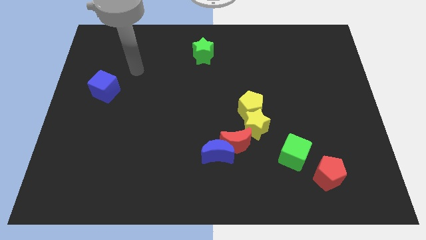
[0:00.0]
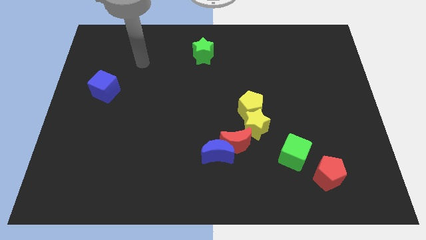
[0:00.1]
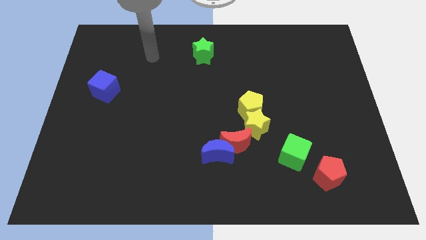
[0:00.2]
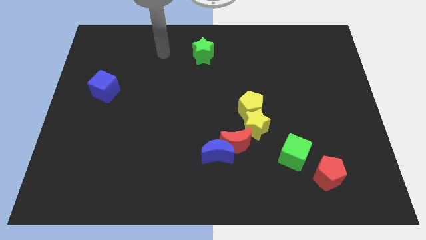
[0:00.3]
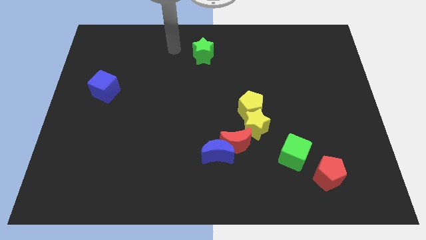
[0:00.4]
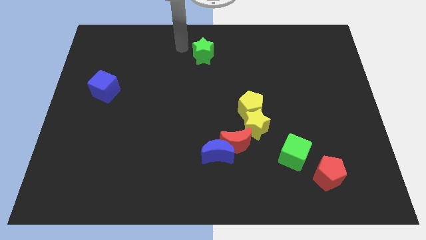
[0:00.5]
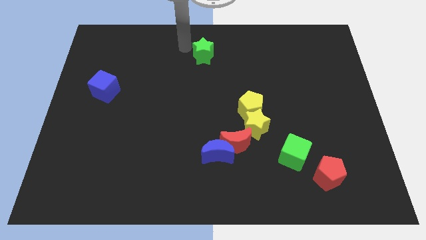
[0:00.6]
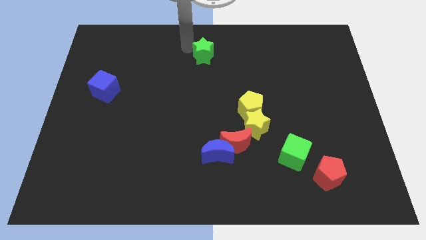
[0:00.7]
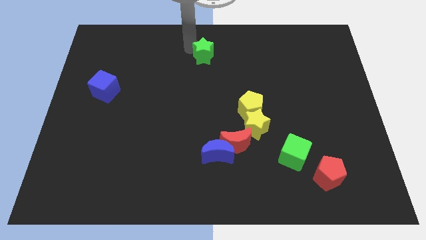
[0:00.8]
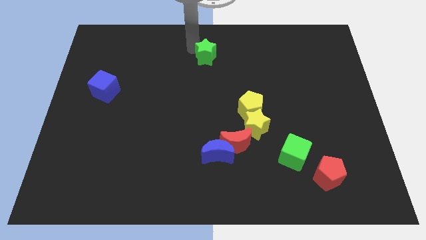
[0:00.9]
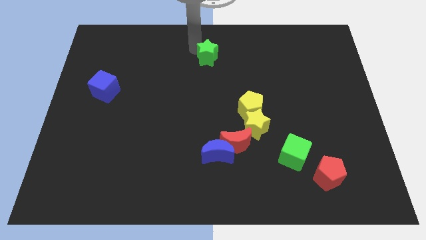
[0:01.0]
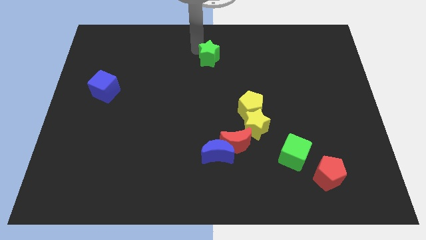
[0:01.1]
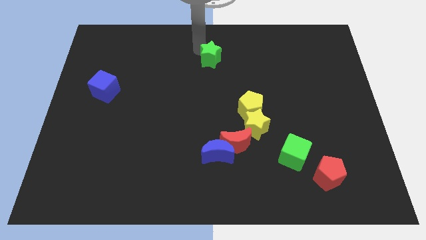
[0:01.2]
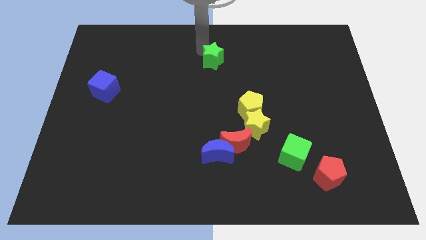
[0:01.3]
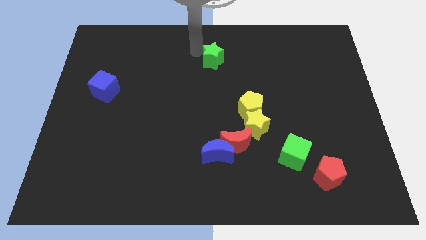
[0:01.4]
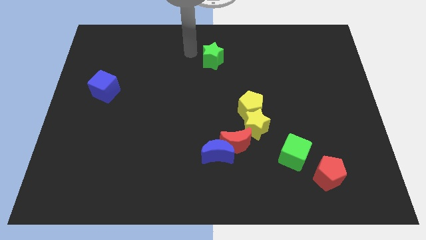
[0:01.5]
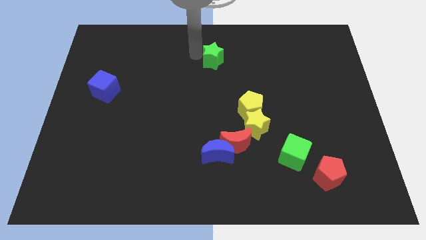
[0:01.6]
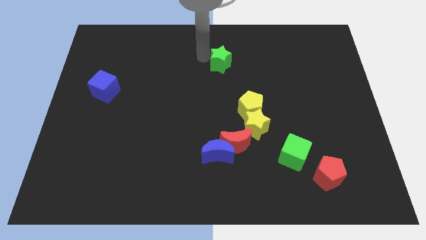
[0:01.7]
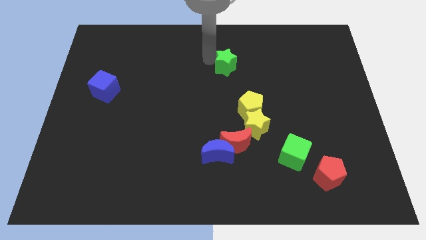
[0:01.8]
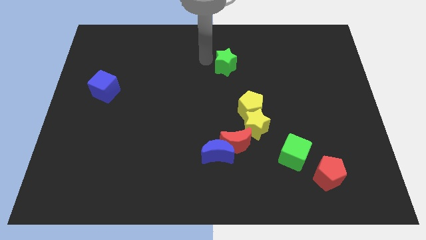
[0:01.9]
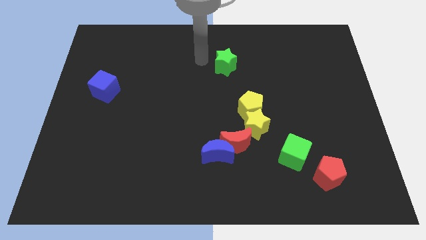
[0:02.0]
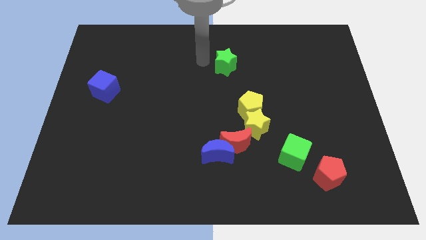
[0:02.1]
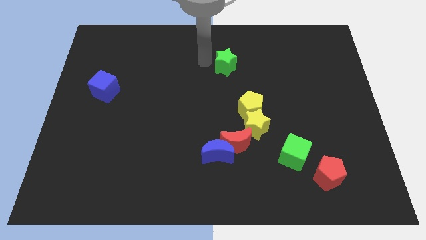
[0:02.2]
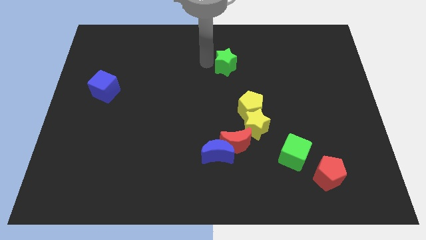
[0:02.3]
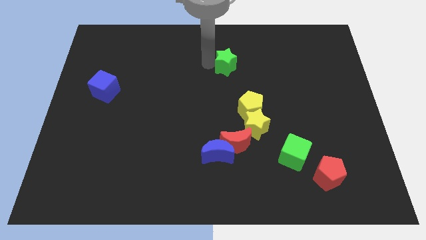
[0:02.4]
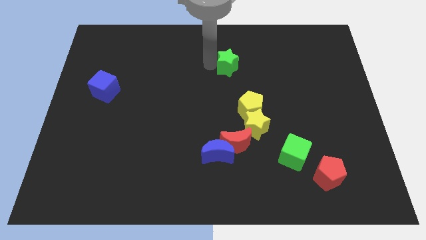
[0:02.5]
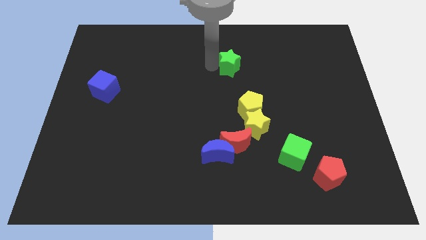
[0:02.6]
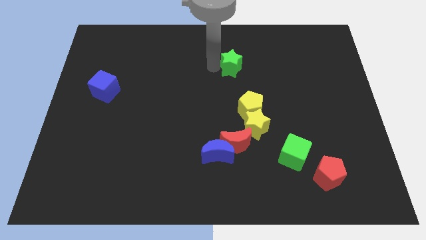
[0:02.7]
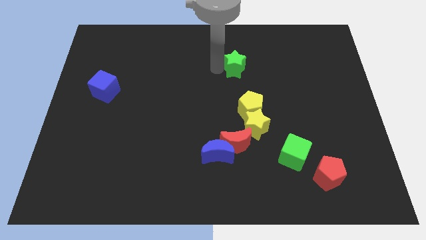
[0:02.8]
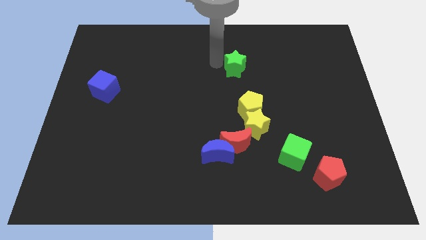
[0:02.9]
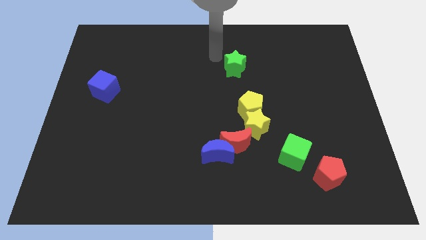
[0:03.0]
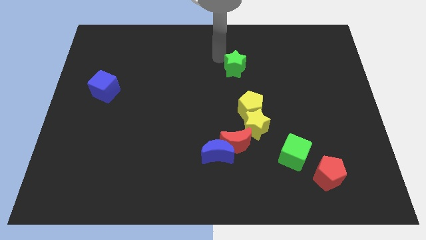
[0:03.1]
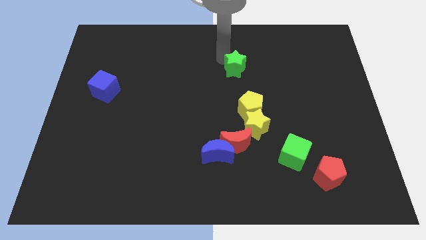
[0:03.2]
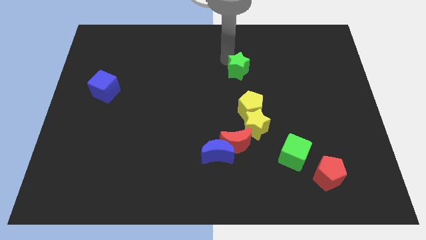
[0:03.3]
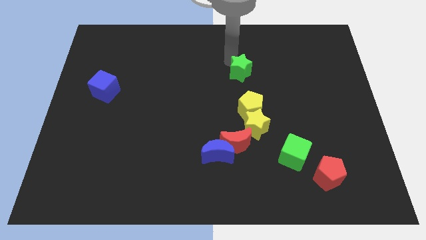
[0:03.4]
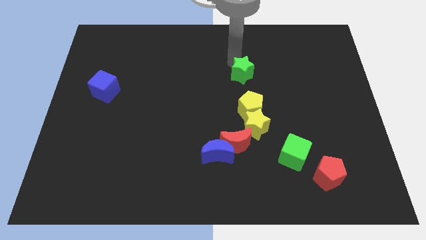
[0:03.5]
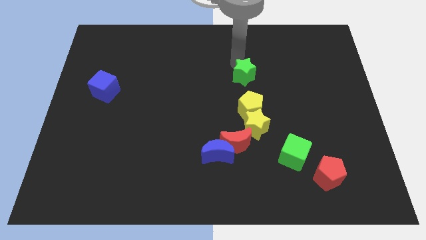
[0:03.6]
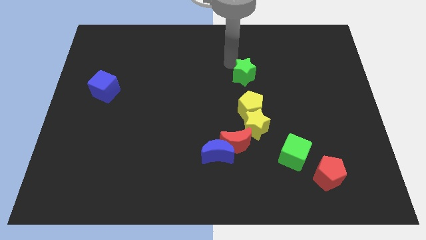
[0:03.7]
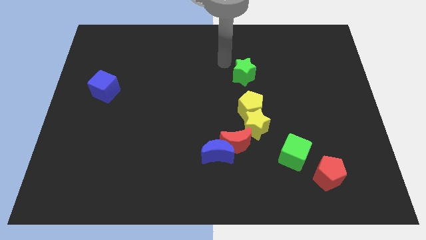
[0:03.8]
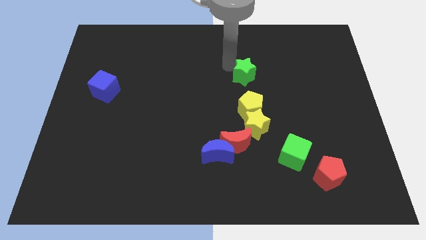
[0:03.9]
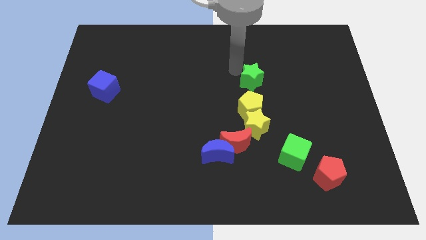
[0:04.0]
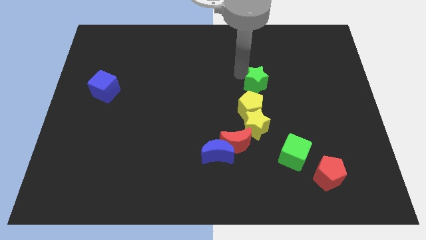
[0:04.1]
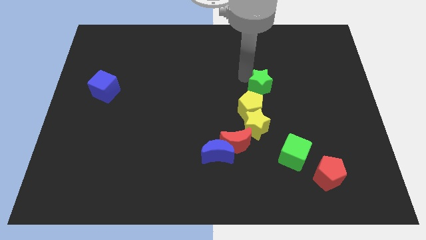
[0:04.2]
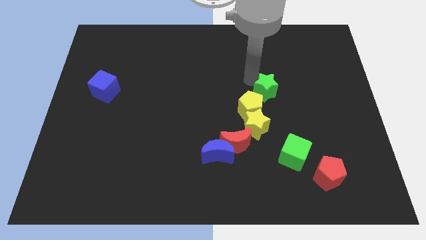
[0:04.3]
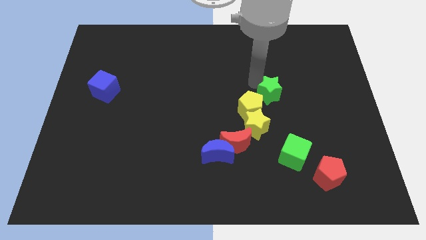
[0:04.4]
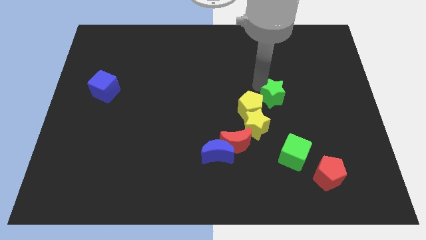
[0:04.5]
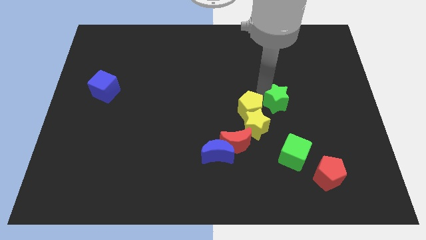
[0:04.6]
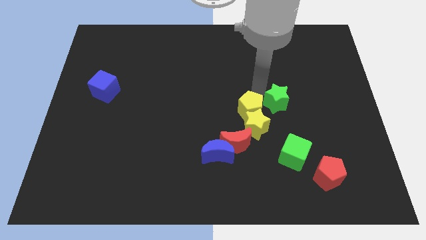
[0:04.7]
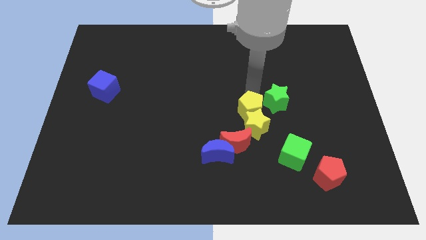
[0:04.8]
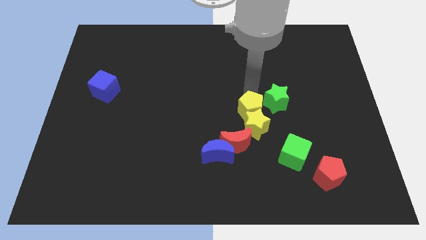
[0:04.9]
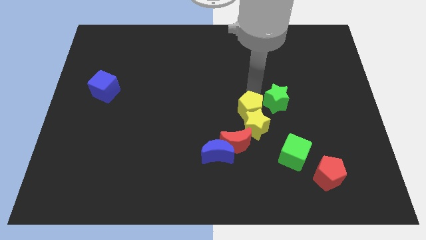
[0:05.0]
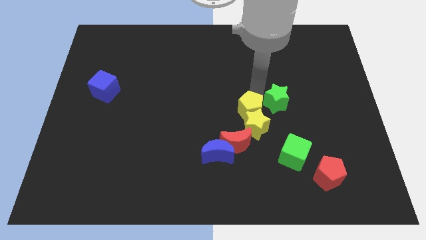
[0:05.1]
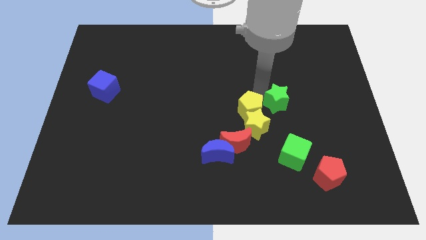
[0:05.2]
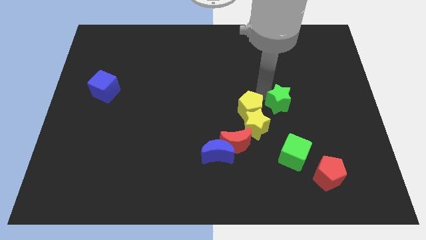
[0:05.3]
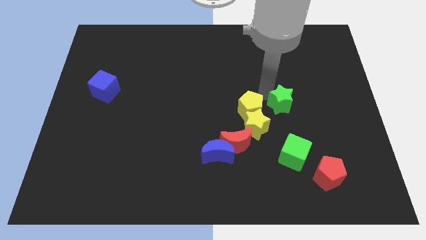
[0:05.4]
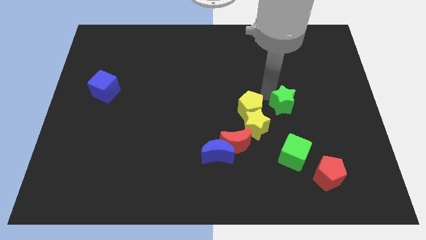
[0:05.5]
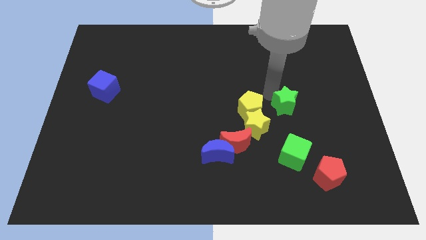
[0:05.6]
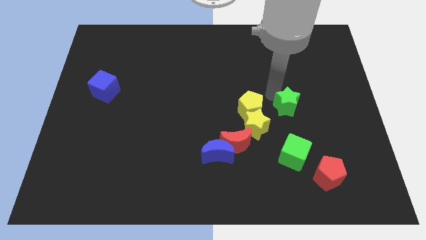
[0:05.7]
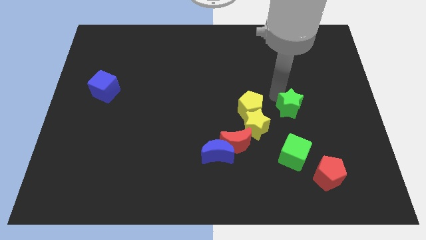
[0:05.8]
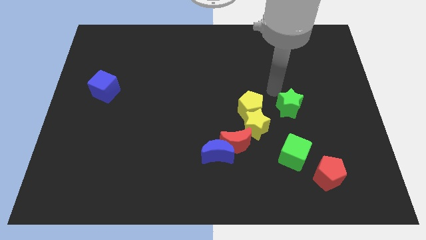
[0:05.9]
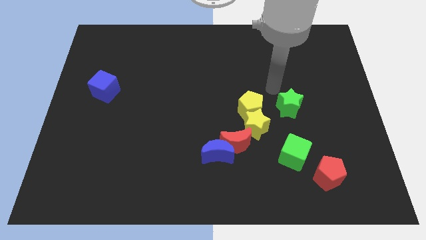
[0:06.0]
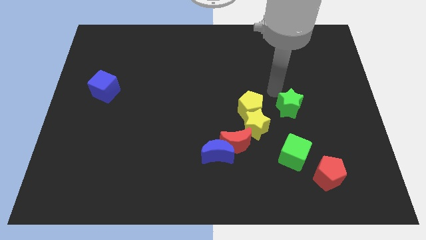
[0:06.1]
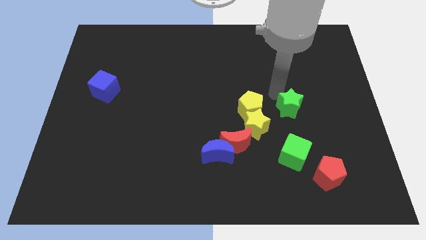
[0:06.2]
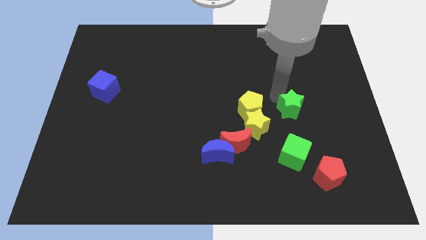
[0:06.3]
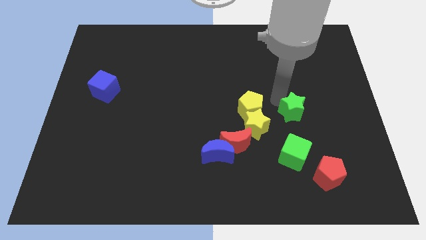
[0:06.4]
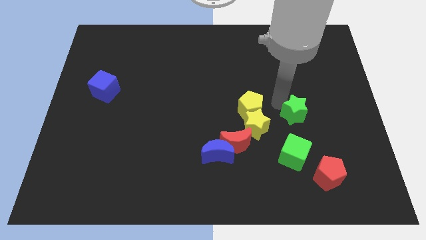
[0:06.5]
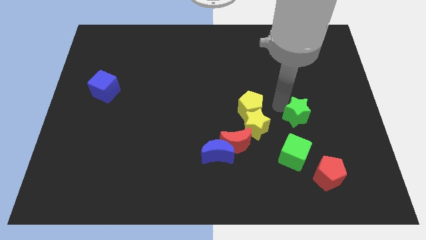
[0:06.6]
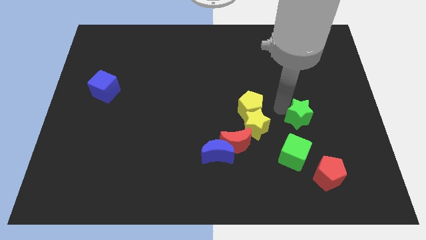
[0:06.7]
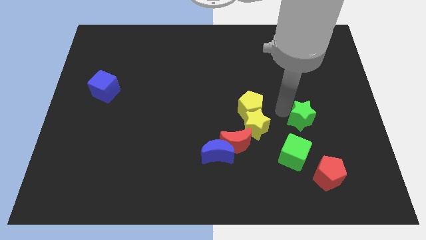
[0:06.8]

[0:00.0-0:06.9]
put the green star to the top right of the green cube
